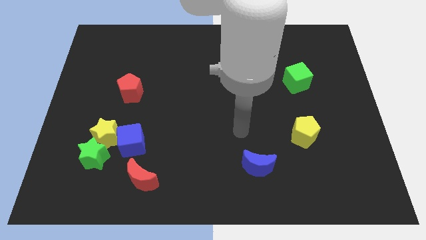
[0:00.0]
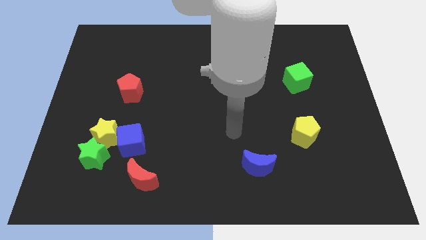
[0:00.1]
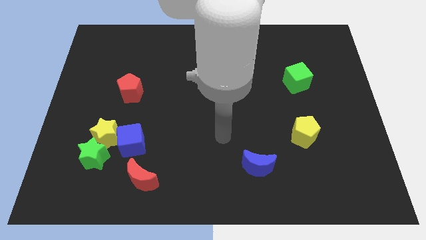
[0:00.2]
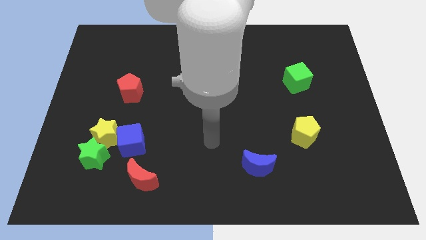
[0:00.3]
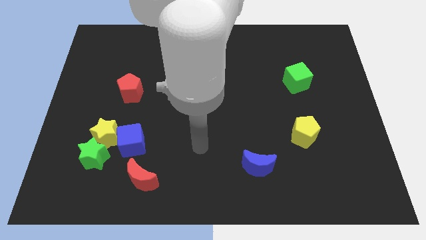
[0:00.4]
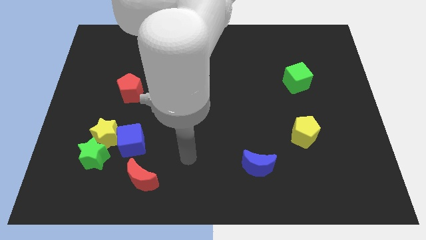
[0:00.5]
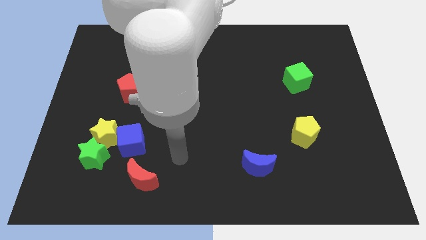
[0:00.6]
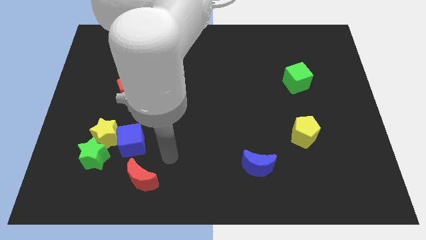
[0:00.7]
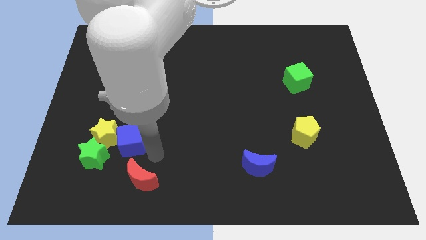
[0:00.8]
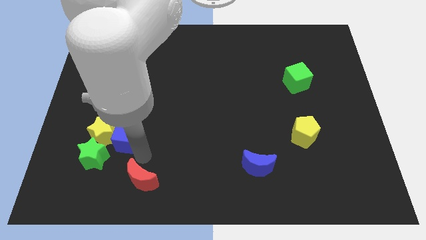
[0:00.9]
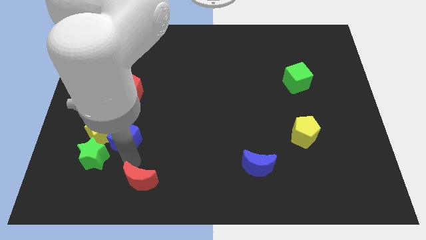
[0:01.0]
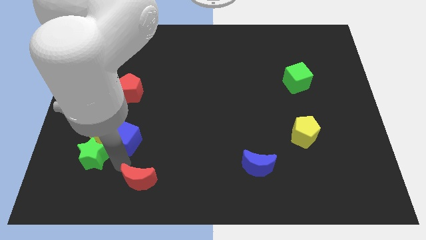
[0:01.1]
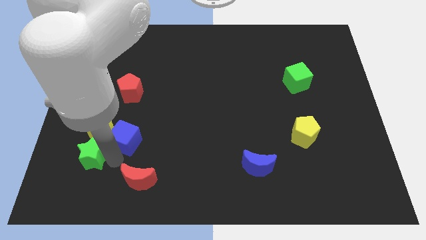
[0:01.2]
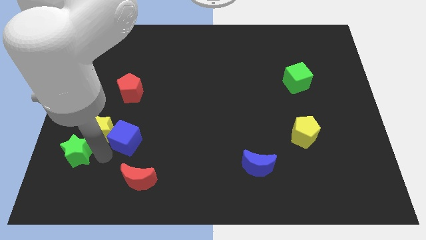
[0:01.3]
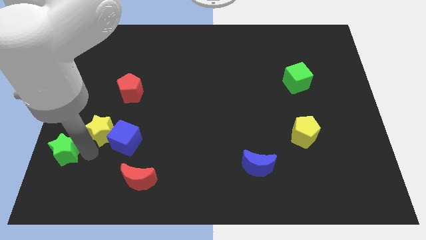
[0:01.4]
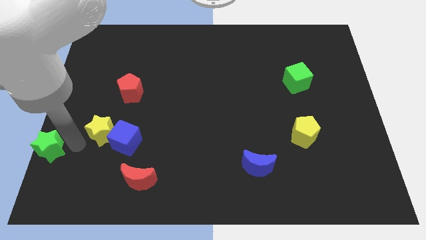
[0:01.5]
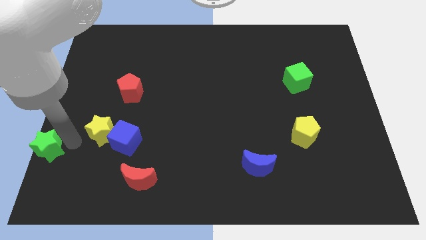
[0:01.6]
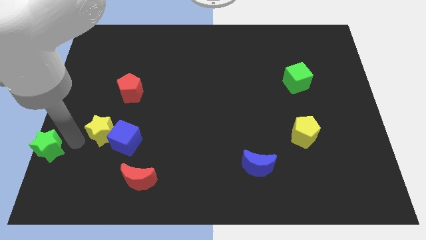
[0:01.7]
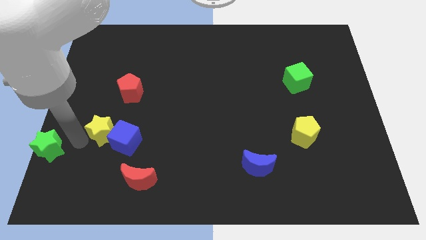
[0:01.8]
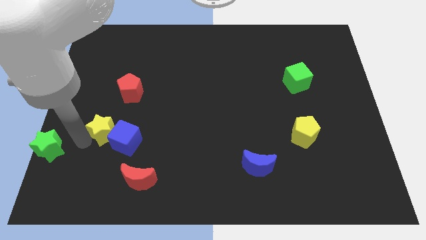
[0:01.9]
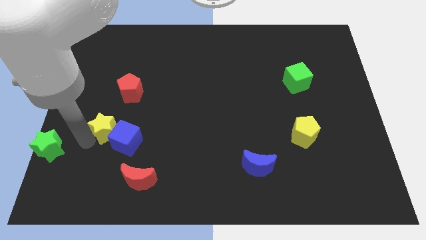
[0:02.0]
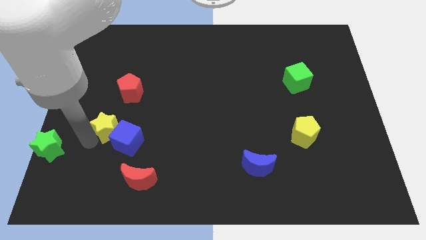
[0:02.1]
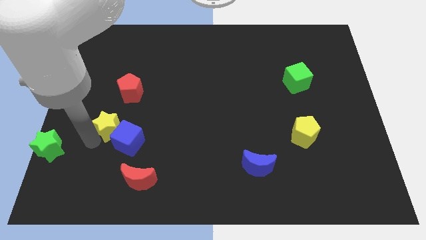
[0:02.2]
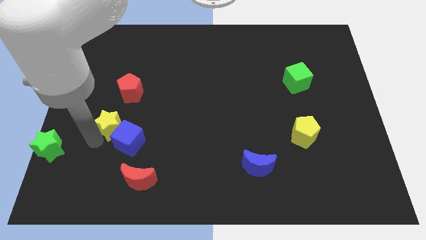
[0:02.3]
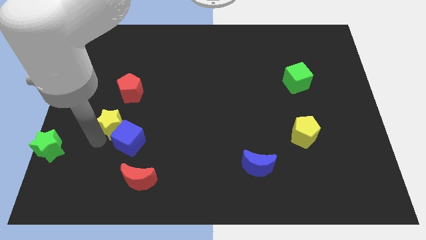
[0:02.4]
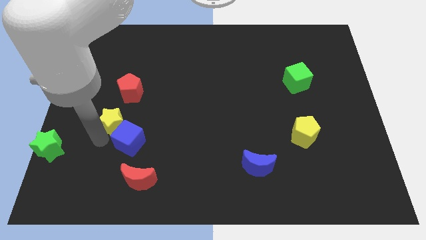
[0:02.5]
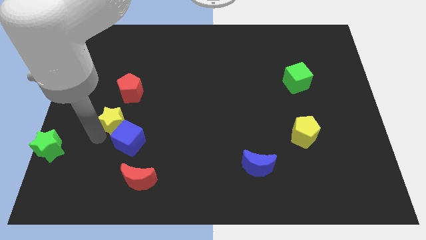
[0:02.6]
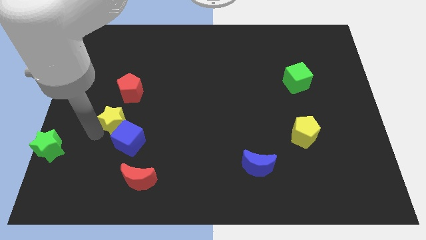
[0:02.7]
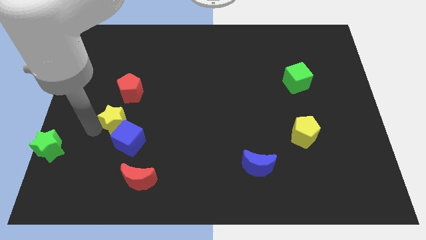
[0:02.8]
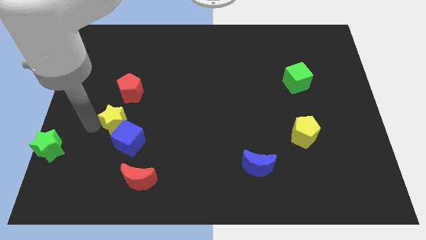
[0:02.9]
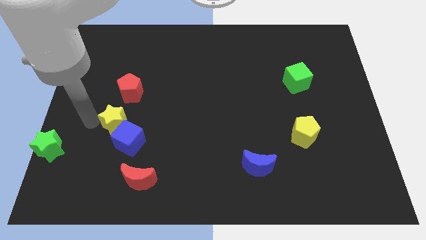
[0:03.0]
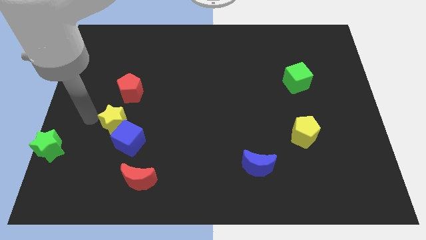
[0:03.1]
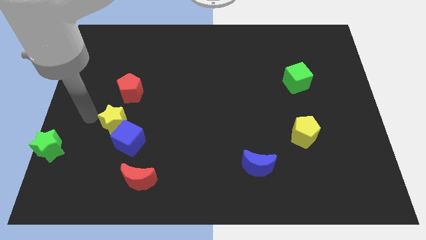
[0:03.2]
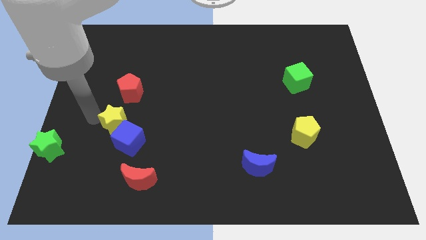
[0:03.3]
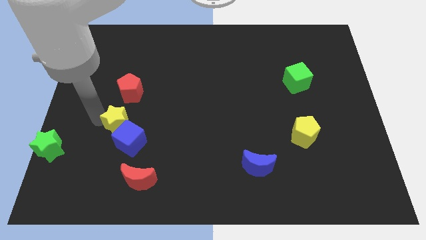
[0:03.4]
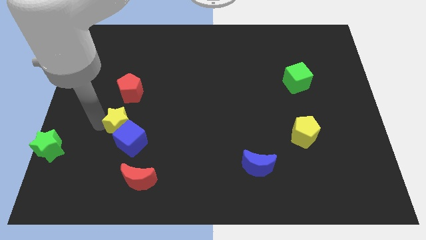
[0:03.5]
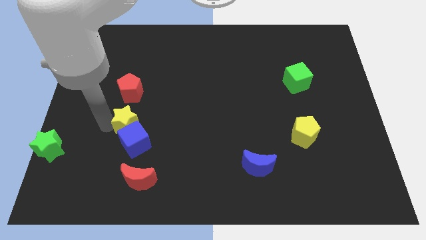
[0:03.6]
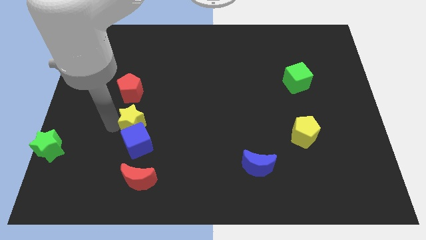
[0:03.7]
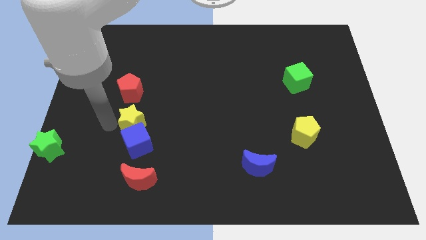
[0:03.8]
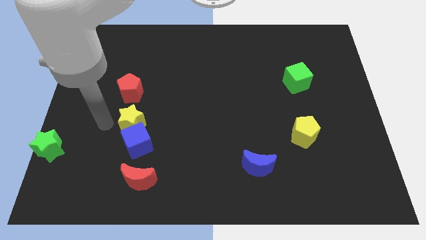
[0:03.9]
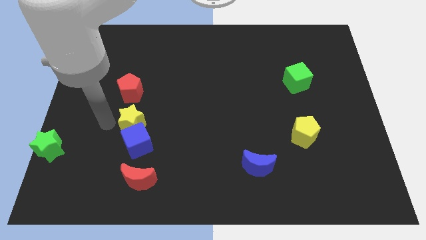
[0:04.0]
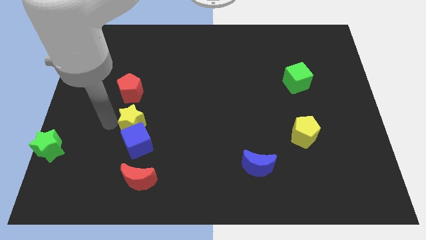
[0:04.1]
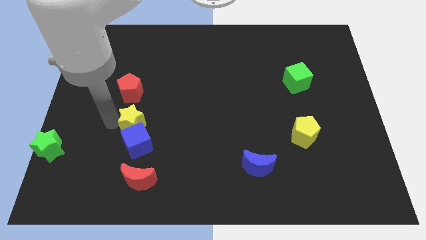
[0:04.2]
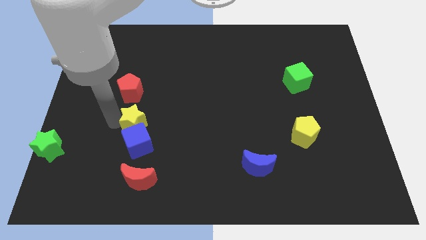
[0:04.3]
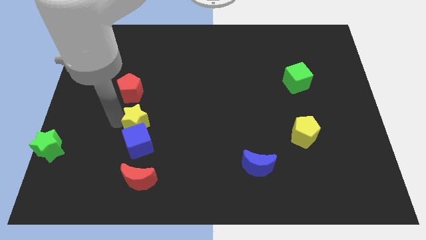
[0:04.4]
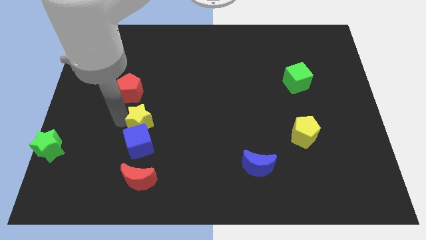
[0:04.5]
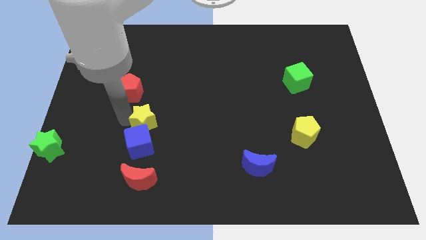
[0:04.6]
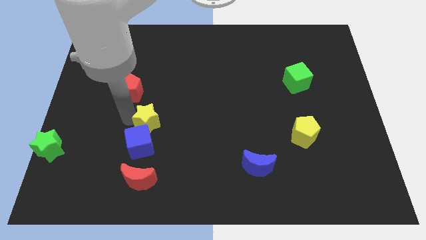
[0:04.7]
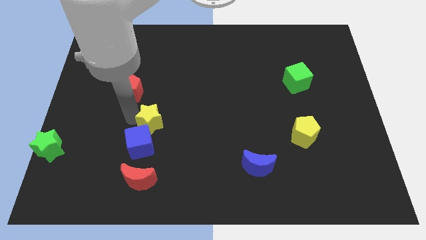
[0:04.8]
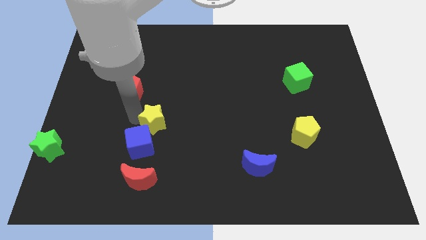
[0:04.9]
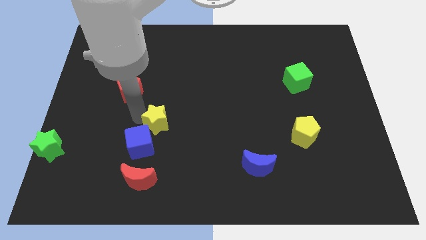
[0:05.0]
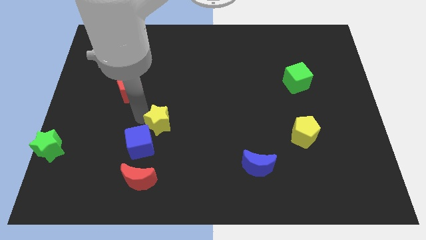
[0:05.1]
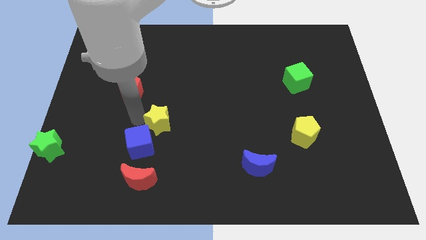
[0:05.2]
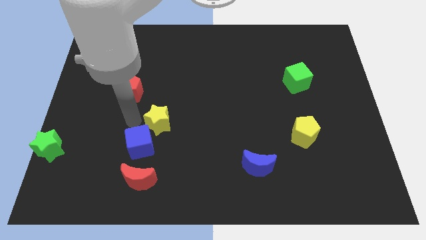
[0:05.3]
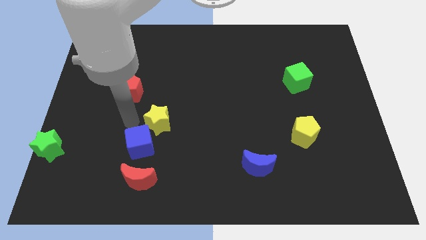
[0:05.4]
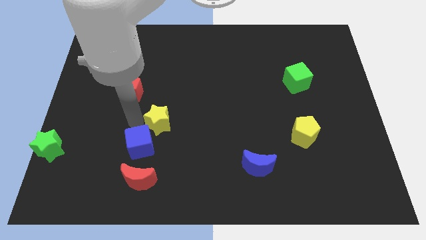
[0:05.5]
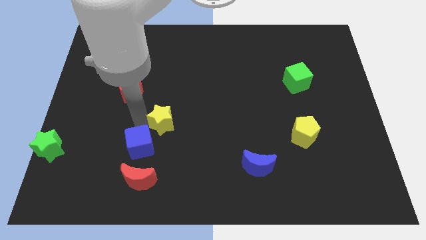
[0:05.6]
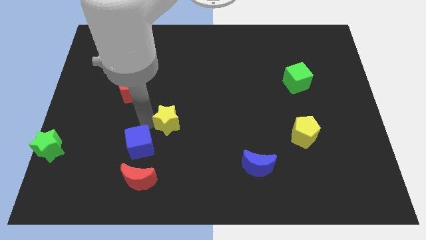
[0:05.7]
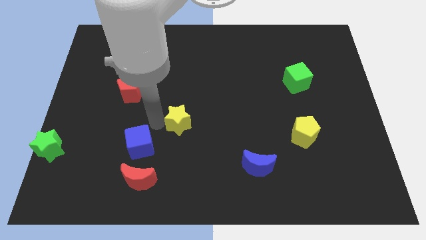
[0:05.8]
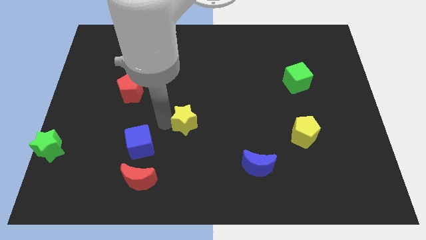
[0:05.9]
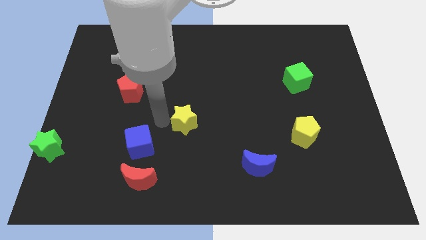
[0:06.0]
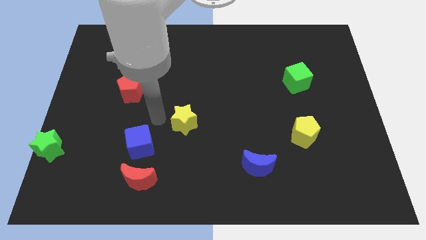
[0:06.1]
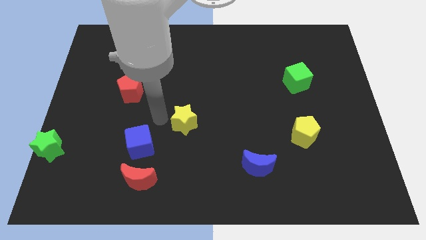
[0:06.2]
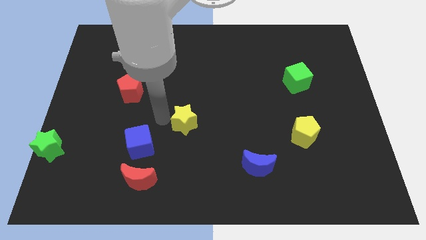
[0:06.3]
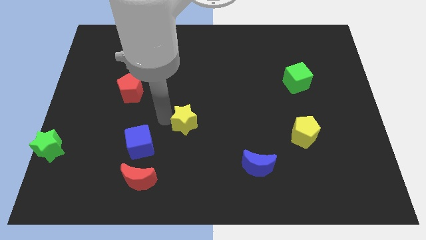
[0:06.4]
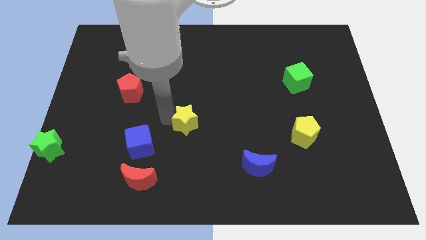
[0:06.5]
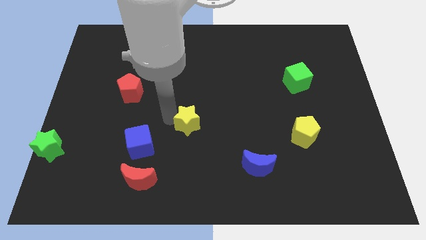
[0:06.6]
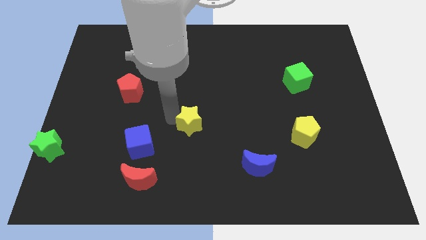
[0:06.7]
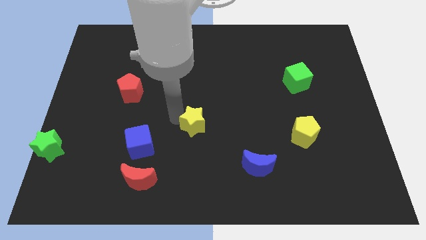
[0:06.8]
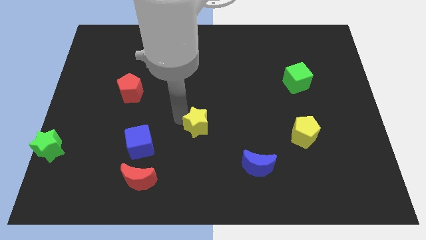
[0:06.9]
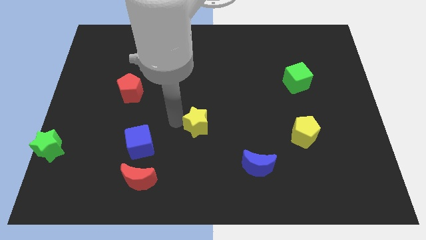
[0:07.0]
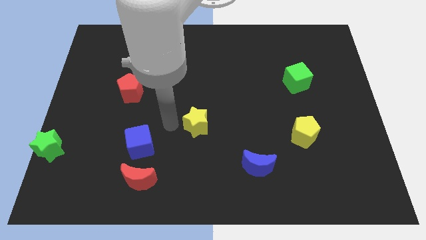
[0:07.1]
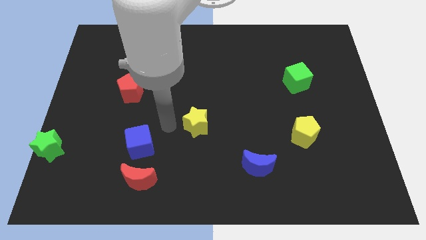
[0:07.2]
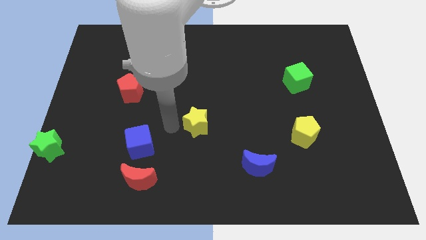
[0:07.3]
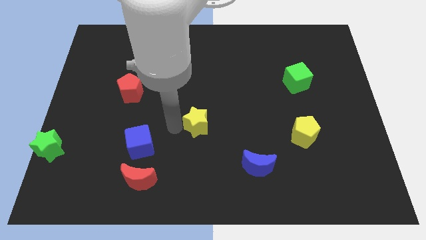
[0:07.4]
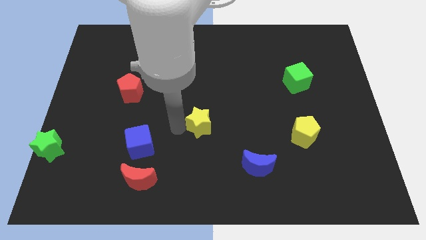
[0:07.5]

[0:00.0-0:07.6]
move the yellow star to the right

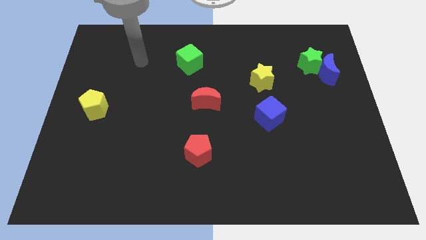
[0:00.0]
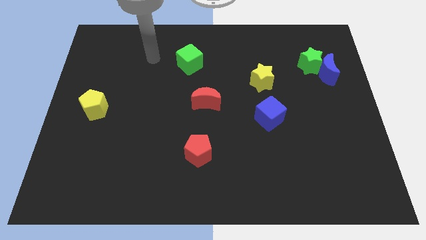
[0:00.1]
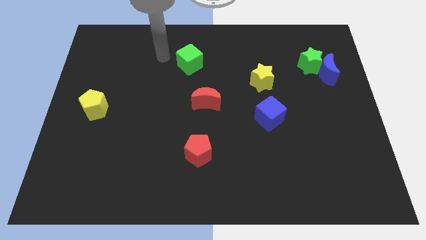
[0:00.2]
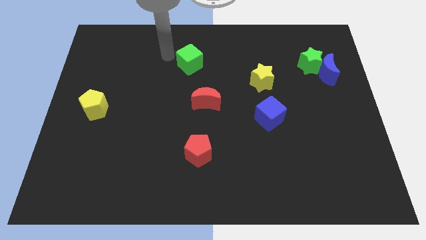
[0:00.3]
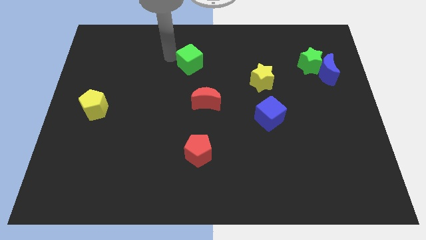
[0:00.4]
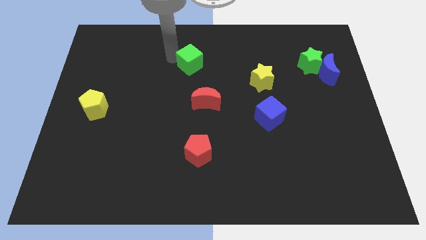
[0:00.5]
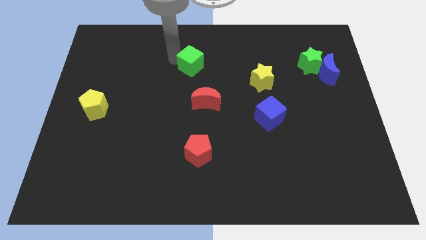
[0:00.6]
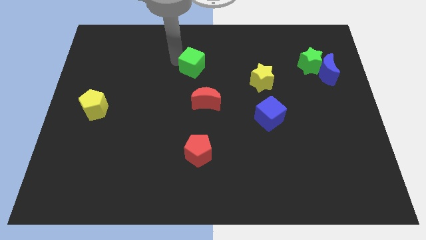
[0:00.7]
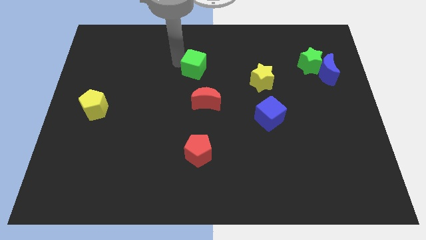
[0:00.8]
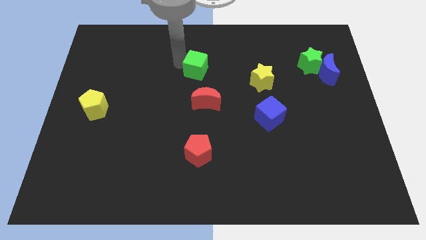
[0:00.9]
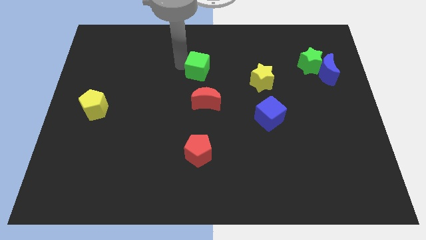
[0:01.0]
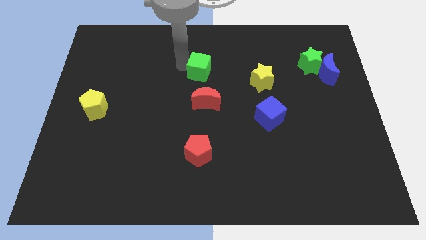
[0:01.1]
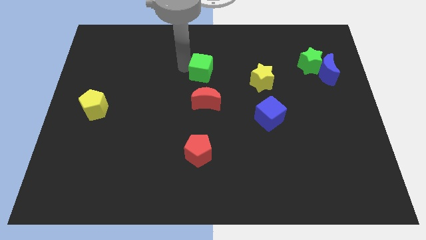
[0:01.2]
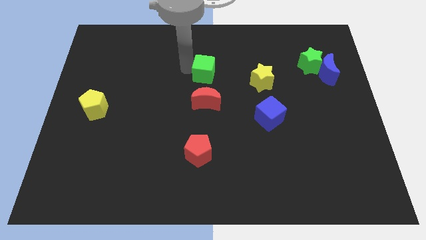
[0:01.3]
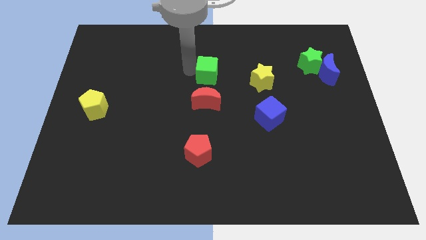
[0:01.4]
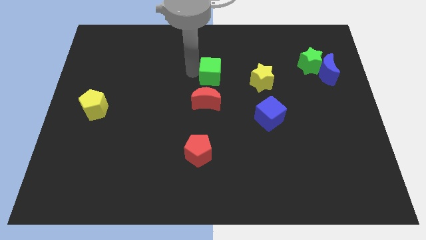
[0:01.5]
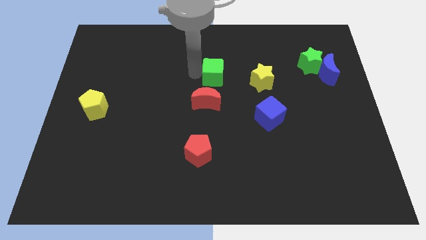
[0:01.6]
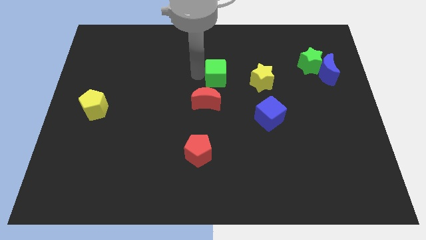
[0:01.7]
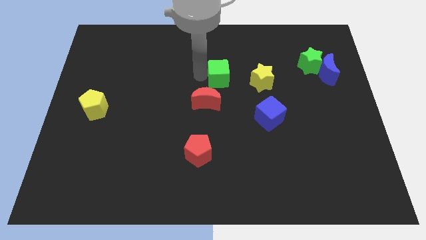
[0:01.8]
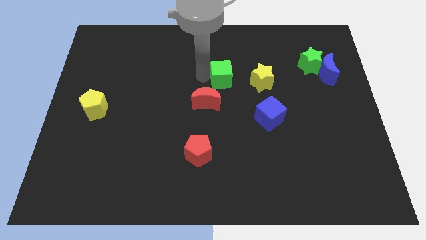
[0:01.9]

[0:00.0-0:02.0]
move the green cube right somewhat
